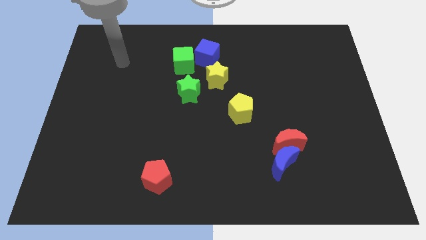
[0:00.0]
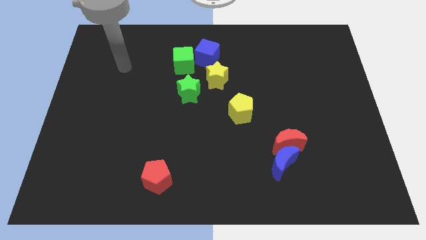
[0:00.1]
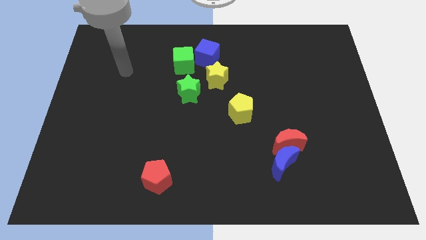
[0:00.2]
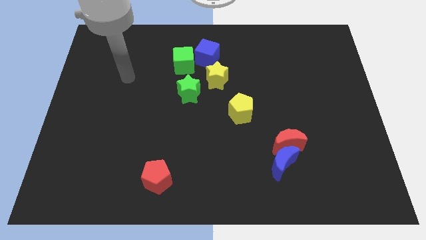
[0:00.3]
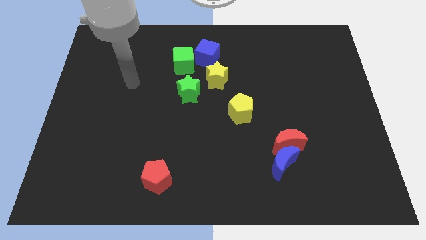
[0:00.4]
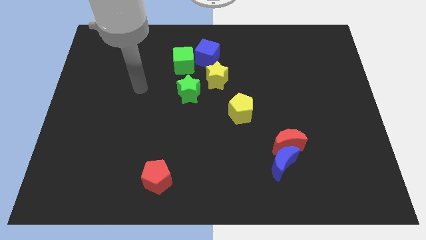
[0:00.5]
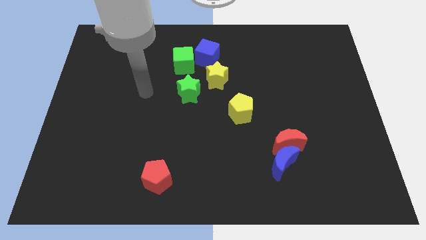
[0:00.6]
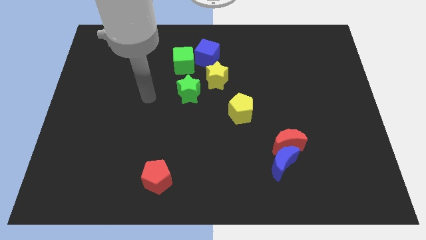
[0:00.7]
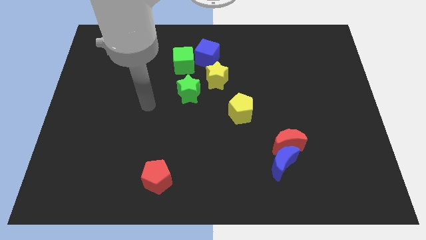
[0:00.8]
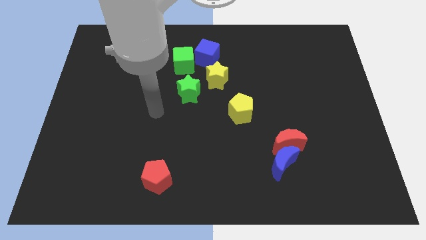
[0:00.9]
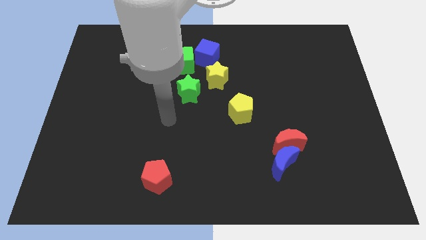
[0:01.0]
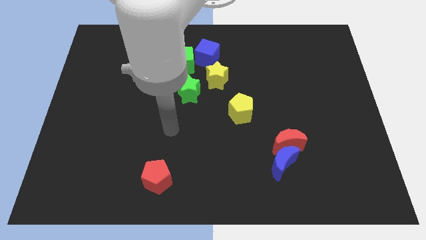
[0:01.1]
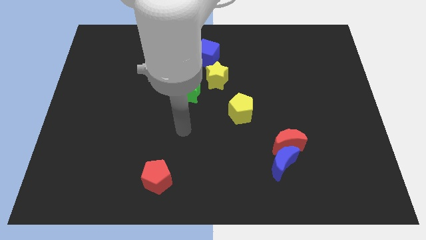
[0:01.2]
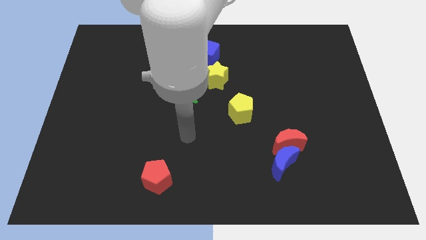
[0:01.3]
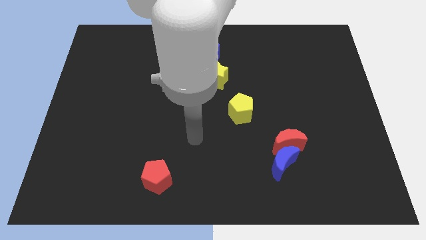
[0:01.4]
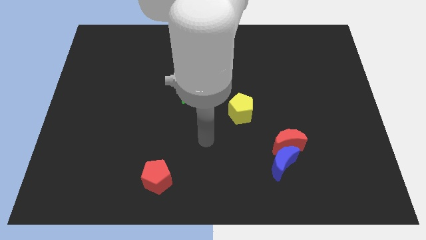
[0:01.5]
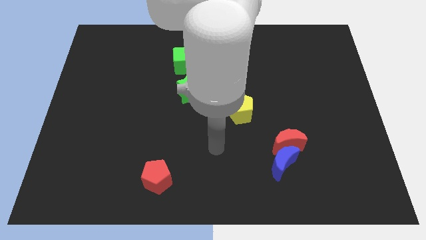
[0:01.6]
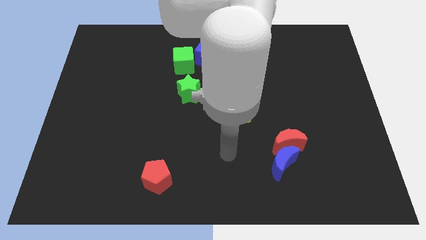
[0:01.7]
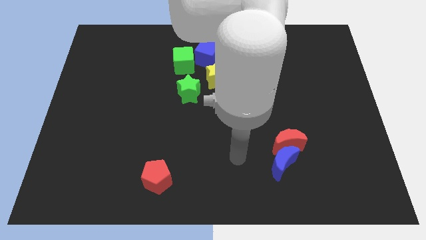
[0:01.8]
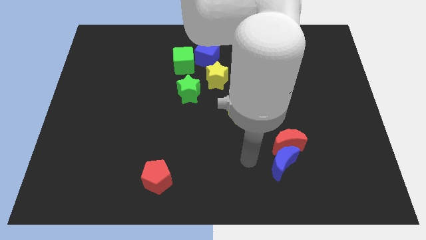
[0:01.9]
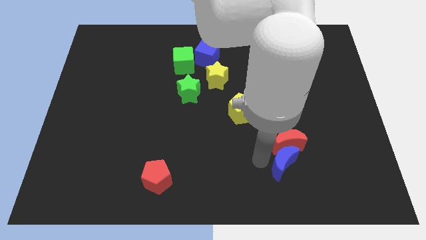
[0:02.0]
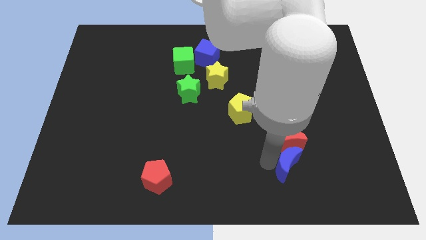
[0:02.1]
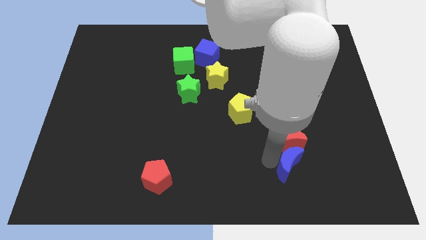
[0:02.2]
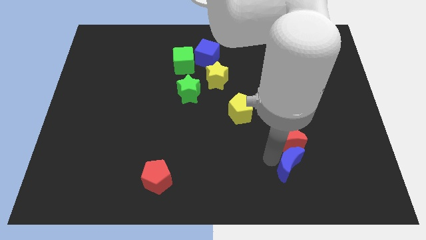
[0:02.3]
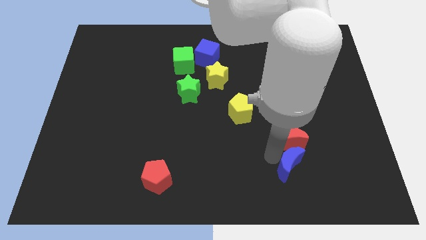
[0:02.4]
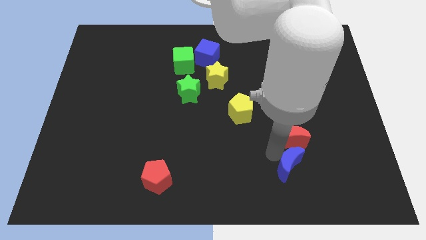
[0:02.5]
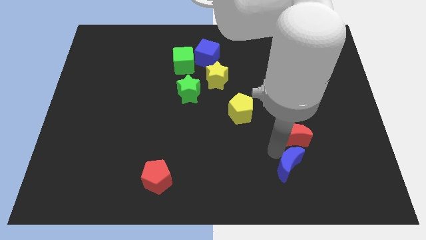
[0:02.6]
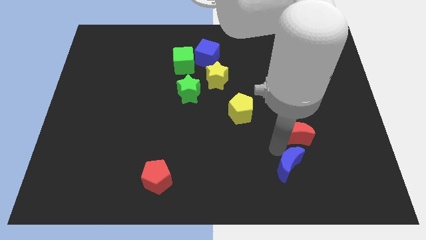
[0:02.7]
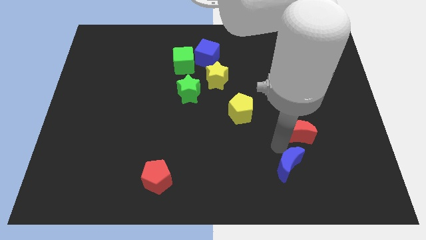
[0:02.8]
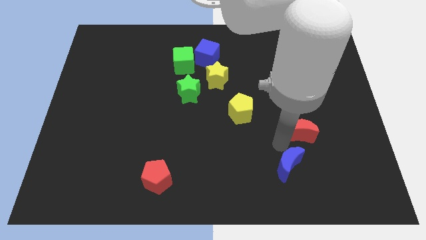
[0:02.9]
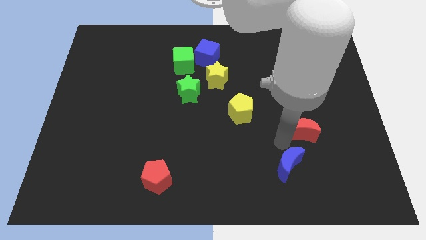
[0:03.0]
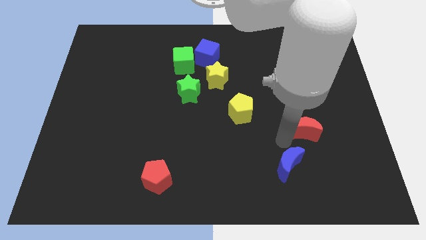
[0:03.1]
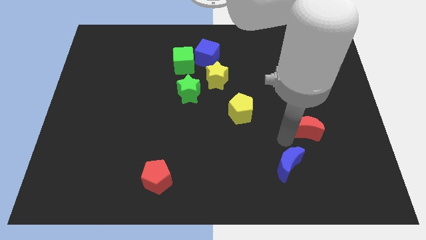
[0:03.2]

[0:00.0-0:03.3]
move the red moon away from the blue moon

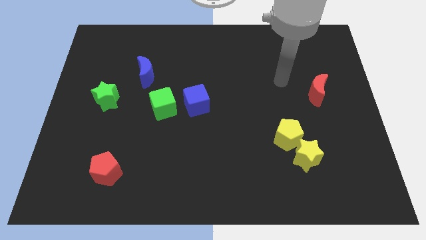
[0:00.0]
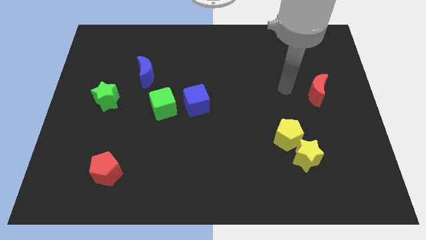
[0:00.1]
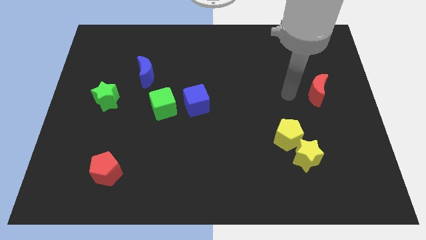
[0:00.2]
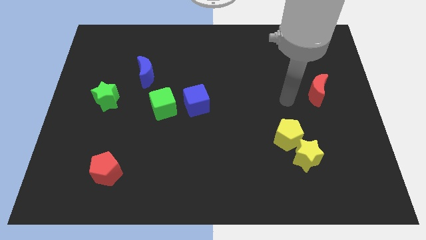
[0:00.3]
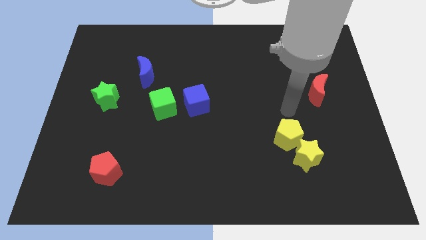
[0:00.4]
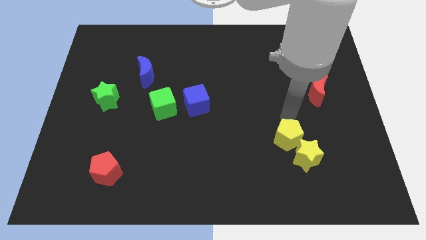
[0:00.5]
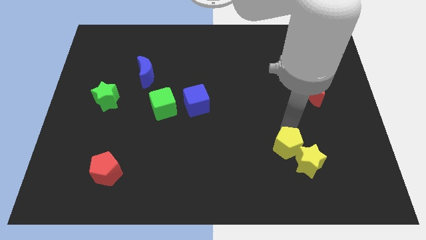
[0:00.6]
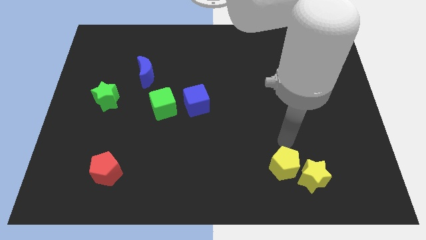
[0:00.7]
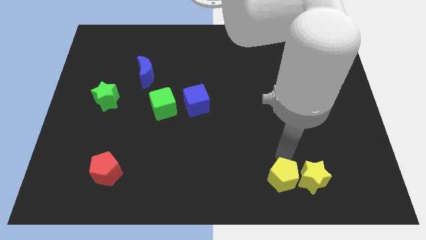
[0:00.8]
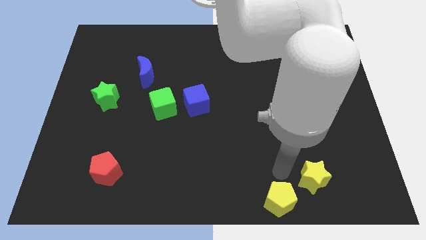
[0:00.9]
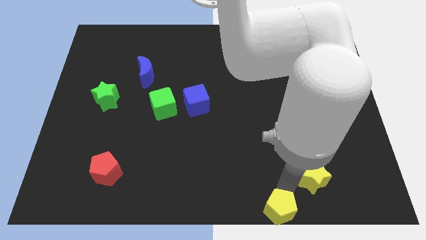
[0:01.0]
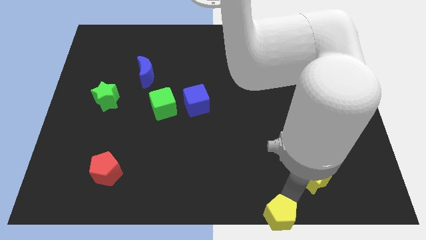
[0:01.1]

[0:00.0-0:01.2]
separate the yellow star from the yellow pentagon

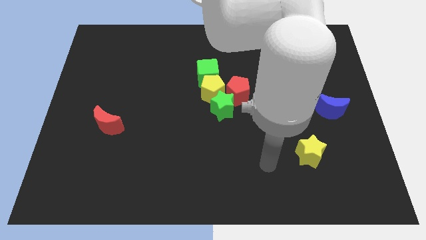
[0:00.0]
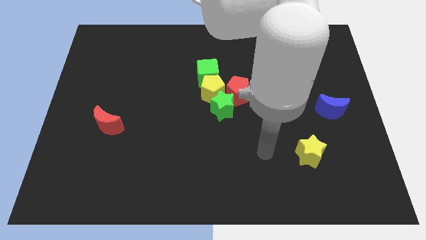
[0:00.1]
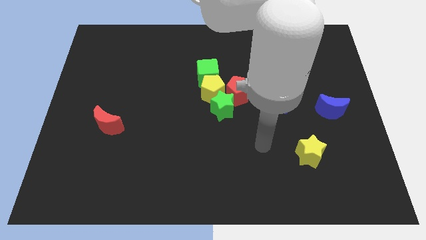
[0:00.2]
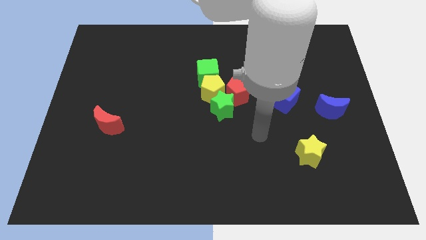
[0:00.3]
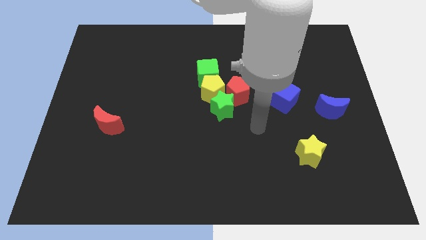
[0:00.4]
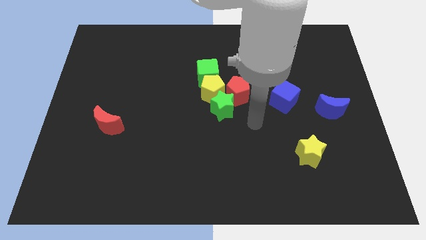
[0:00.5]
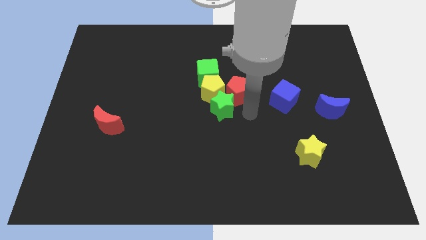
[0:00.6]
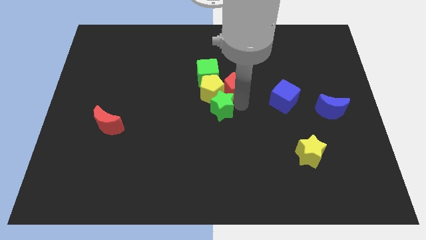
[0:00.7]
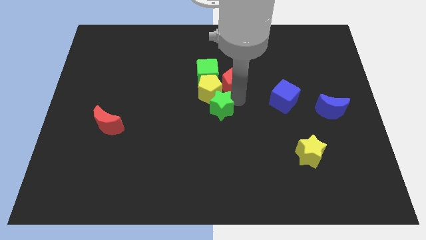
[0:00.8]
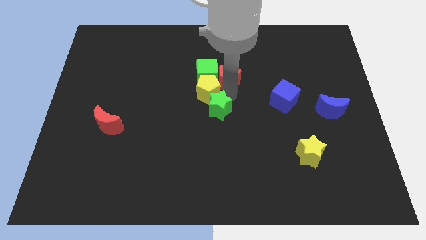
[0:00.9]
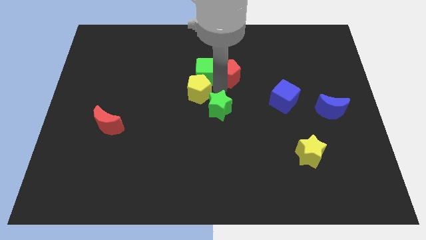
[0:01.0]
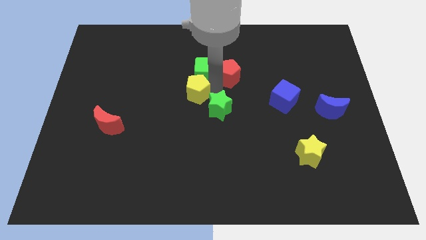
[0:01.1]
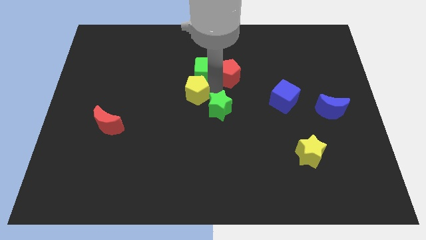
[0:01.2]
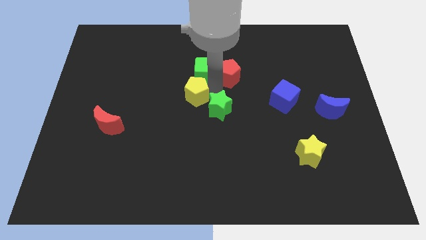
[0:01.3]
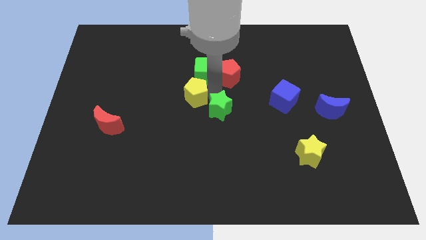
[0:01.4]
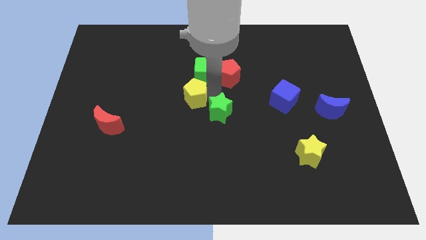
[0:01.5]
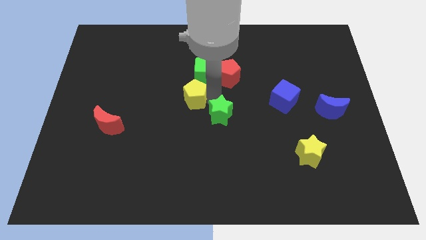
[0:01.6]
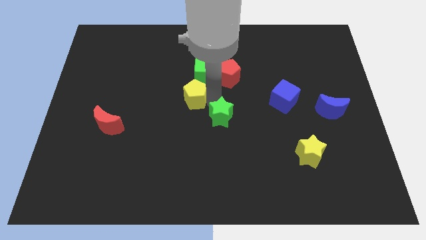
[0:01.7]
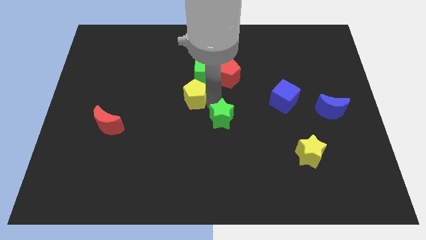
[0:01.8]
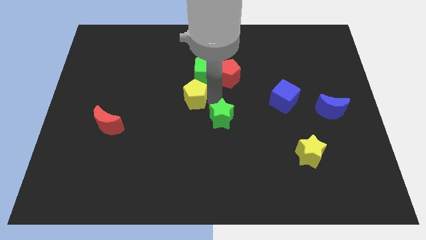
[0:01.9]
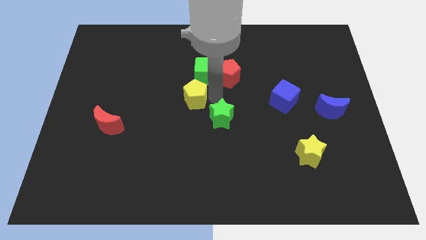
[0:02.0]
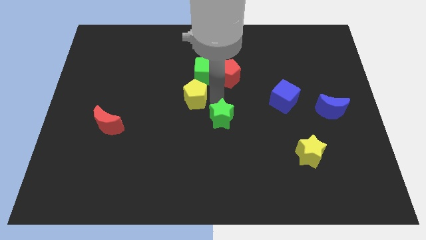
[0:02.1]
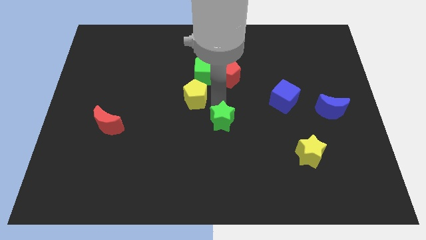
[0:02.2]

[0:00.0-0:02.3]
move the green star away from the yellow pentagon and red pentagon

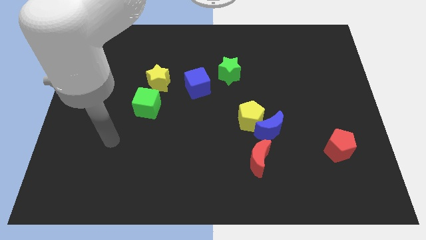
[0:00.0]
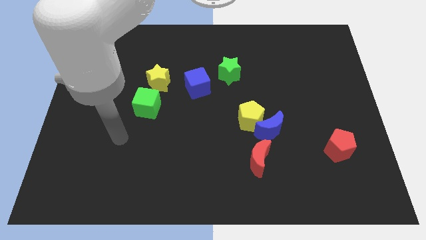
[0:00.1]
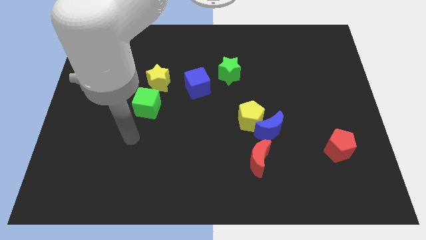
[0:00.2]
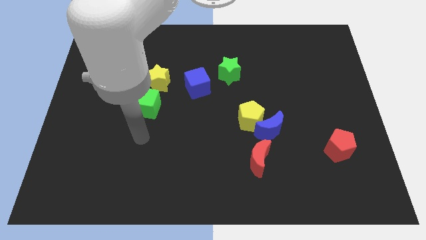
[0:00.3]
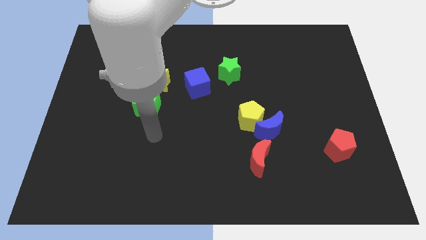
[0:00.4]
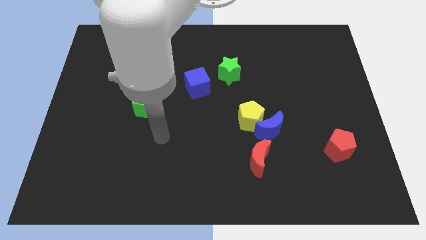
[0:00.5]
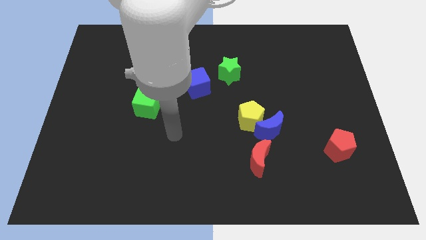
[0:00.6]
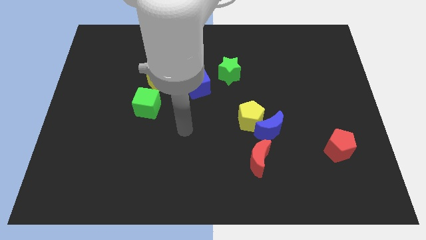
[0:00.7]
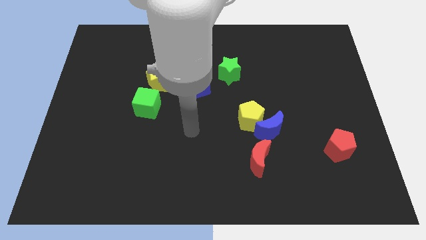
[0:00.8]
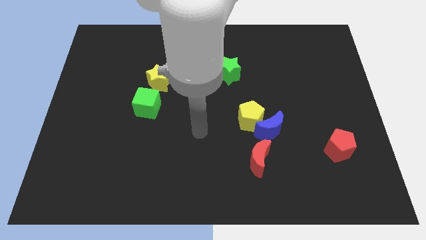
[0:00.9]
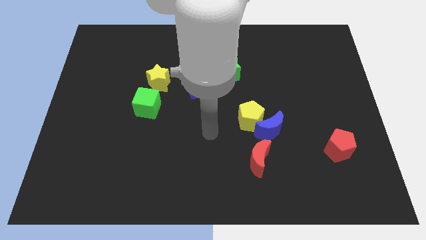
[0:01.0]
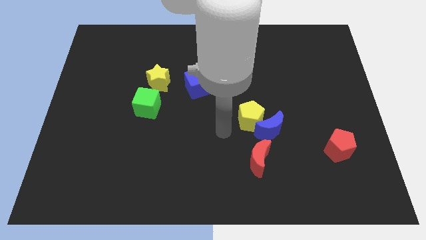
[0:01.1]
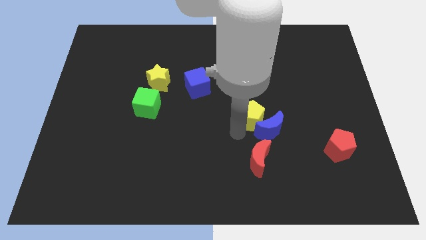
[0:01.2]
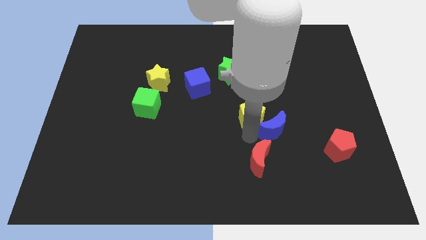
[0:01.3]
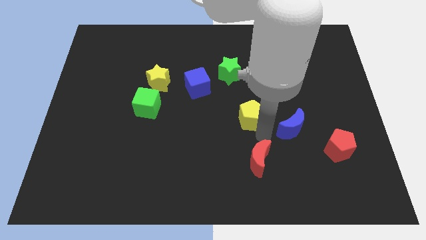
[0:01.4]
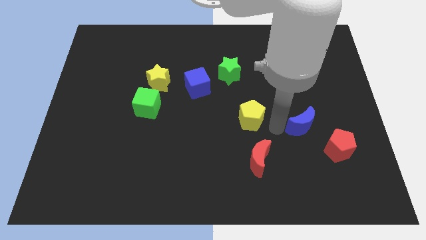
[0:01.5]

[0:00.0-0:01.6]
move the yellow pentagon away from the blue moon

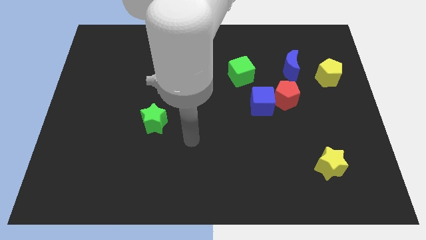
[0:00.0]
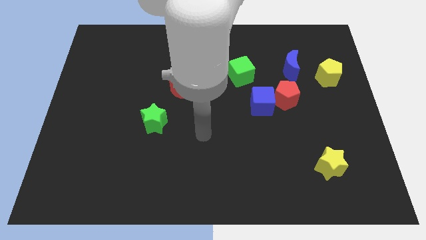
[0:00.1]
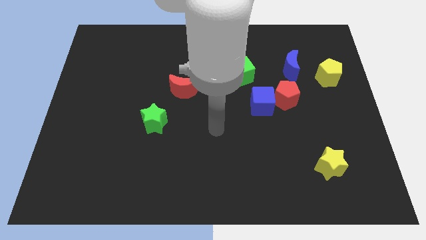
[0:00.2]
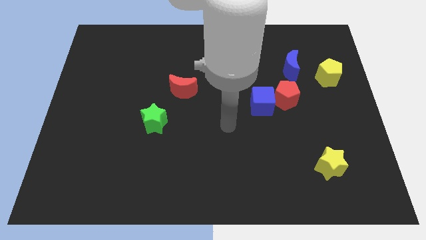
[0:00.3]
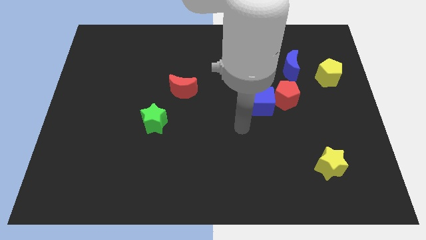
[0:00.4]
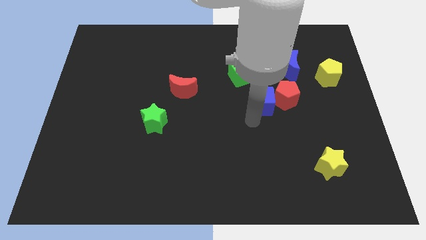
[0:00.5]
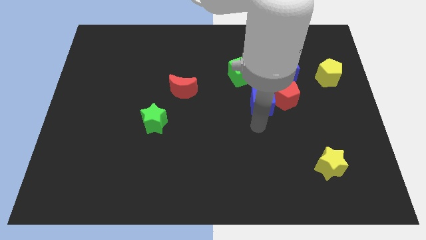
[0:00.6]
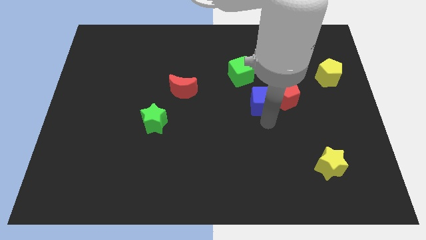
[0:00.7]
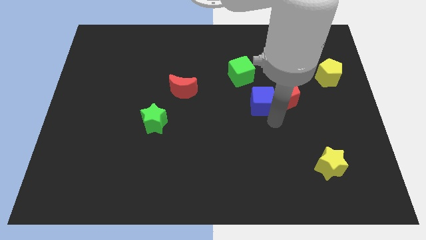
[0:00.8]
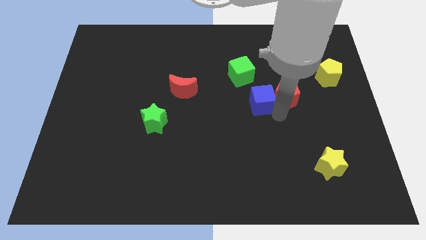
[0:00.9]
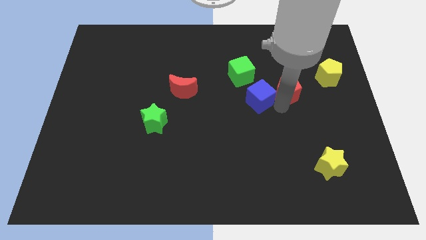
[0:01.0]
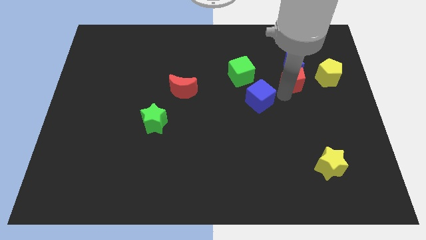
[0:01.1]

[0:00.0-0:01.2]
pull the blue cube apart from the red pentagon
